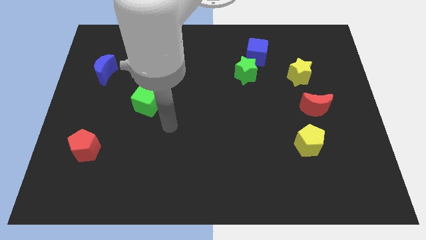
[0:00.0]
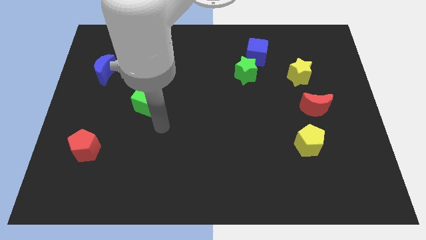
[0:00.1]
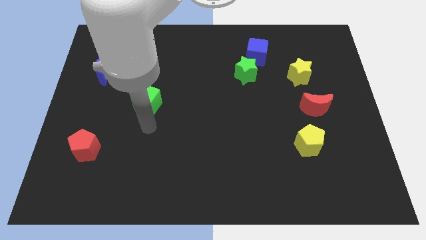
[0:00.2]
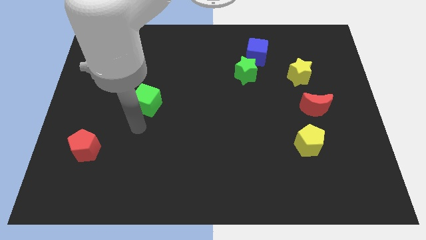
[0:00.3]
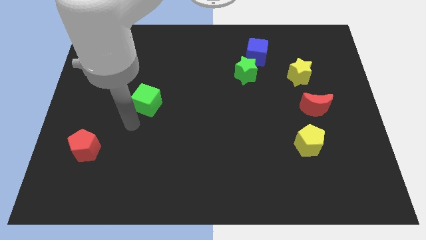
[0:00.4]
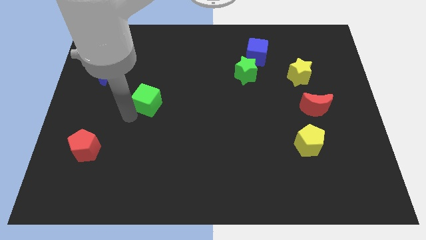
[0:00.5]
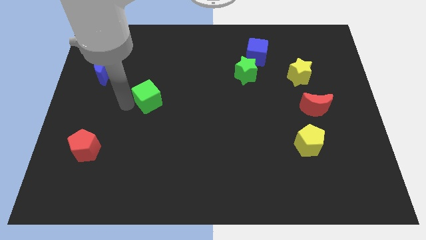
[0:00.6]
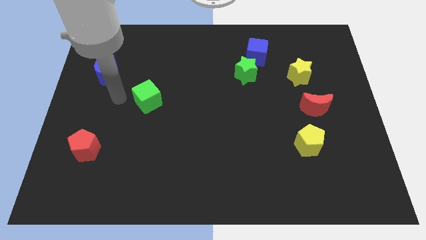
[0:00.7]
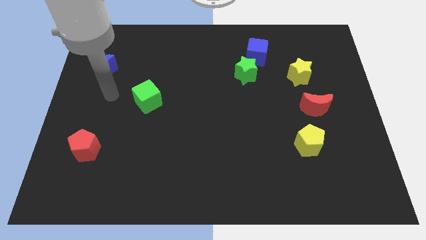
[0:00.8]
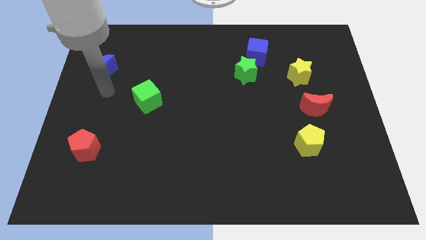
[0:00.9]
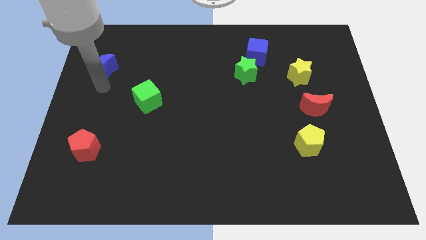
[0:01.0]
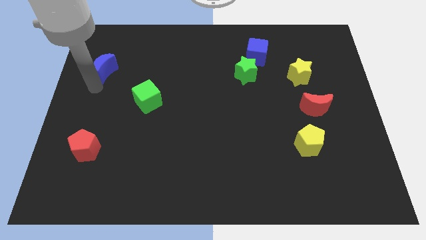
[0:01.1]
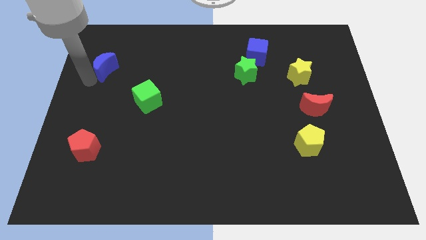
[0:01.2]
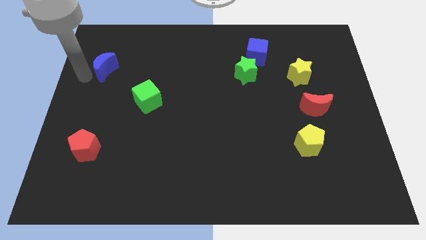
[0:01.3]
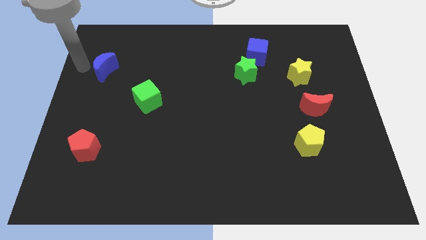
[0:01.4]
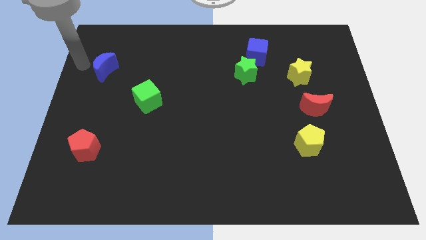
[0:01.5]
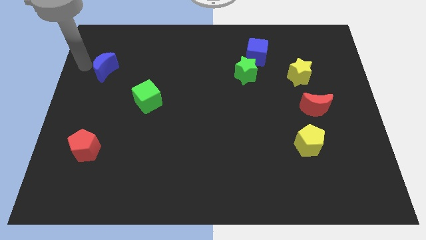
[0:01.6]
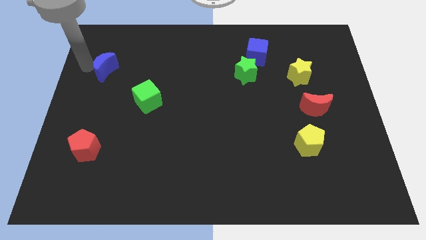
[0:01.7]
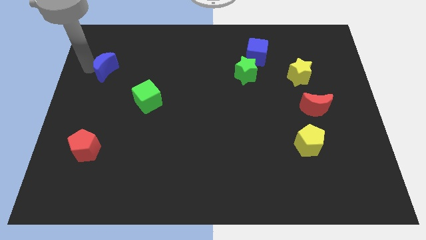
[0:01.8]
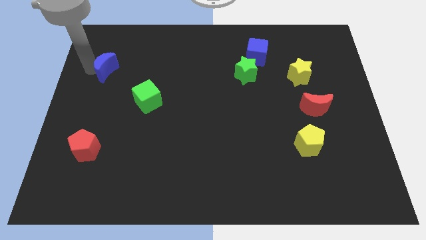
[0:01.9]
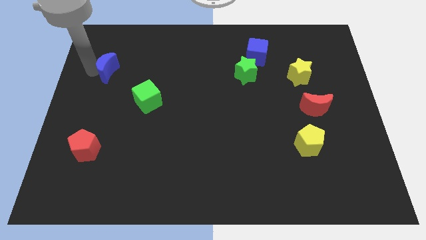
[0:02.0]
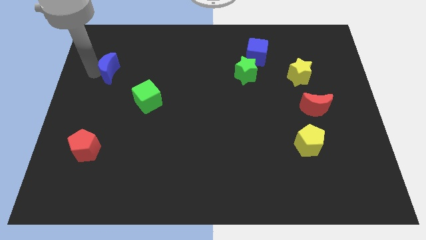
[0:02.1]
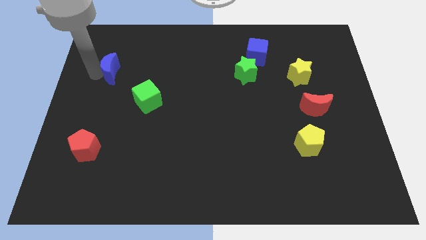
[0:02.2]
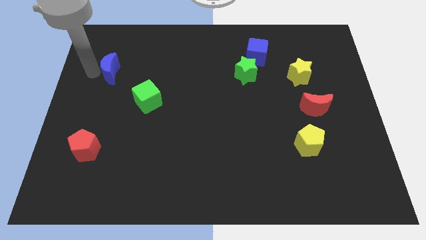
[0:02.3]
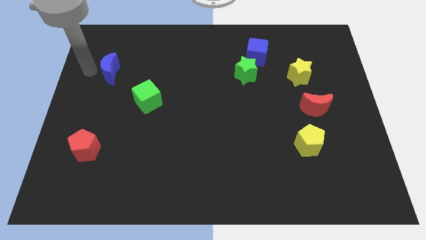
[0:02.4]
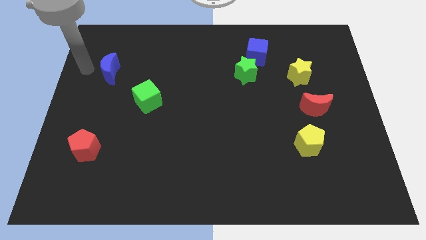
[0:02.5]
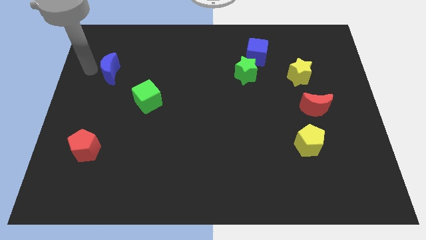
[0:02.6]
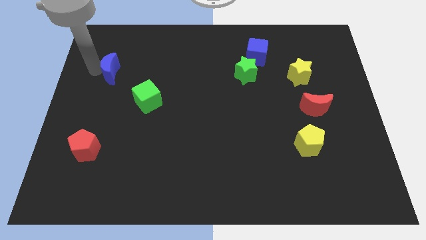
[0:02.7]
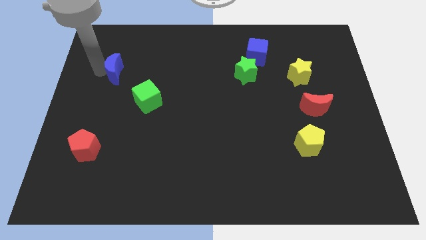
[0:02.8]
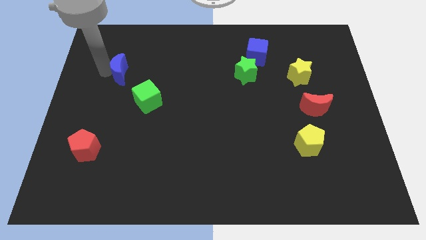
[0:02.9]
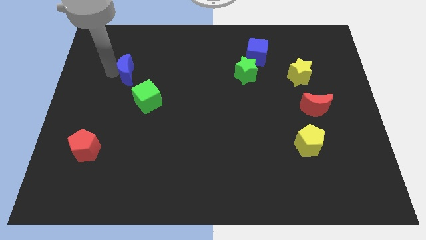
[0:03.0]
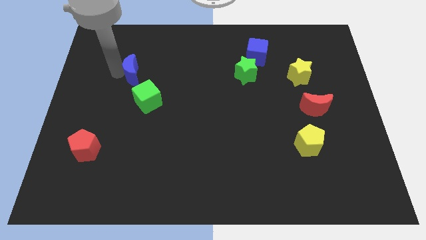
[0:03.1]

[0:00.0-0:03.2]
push the blue moon right a little

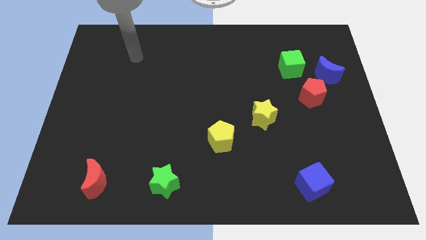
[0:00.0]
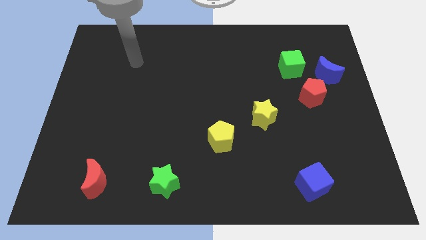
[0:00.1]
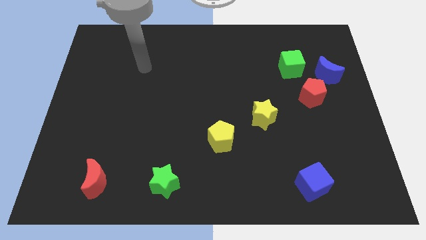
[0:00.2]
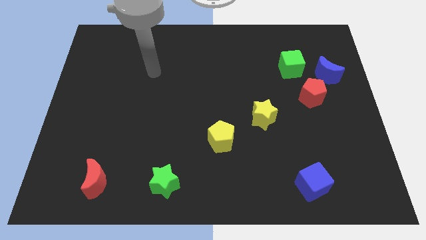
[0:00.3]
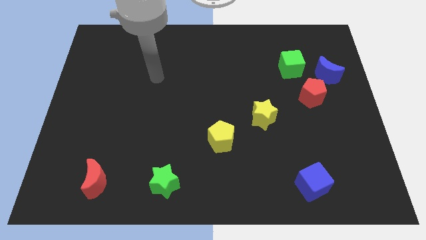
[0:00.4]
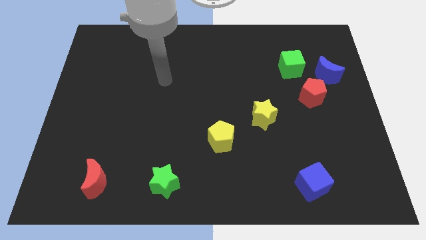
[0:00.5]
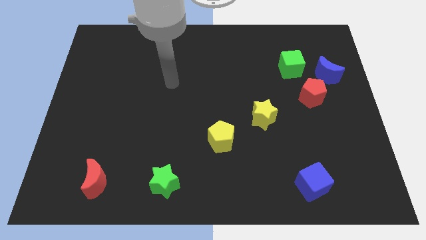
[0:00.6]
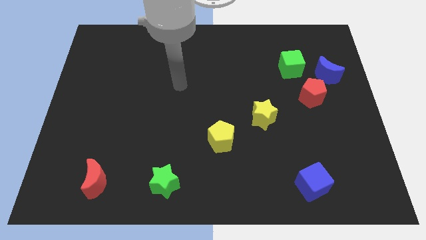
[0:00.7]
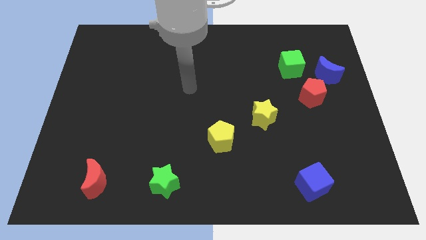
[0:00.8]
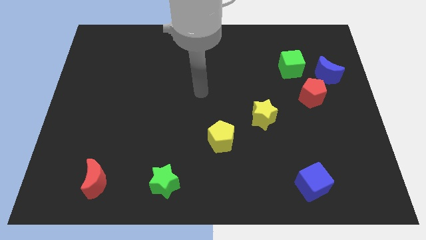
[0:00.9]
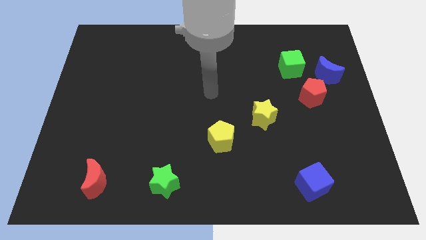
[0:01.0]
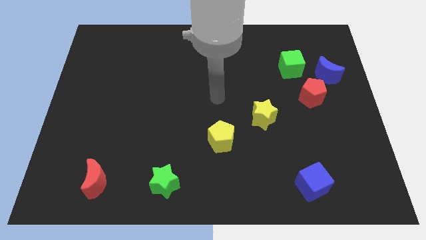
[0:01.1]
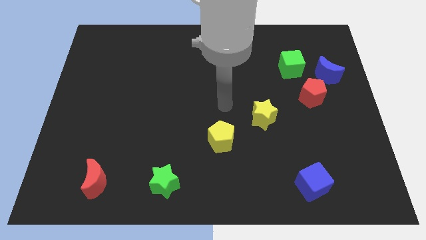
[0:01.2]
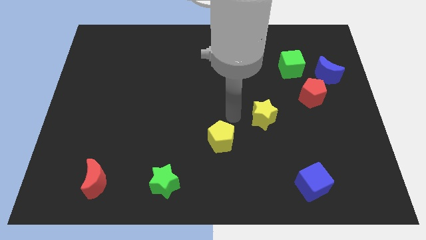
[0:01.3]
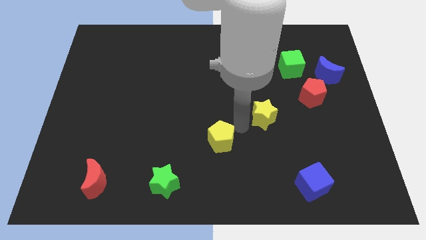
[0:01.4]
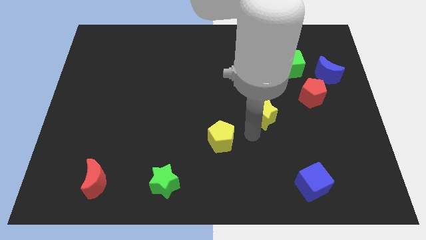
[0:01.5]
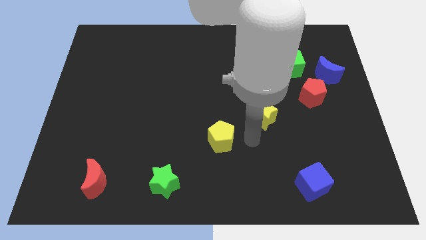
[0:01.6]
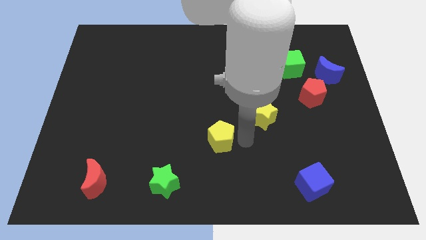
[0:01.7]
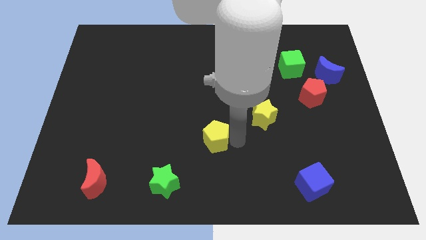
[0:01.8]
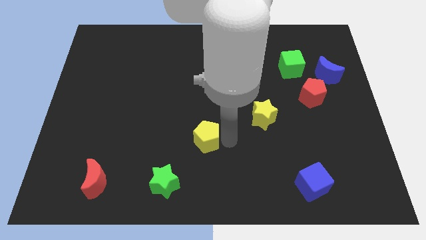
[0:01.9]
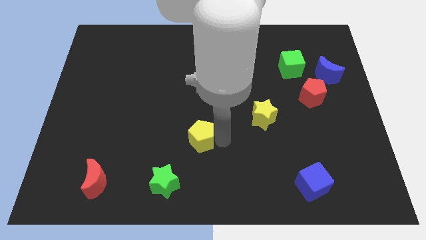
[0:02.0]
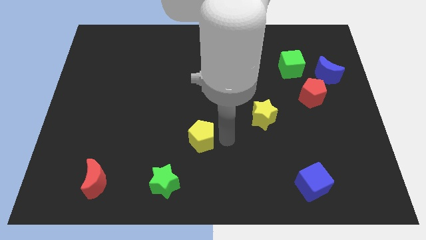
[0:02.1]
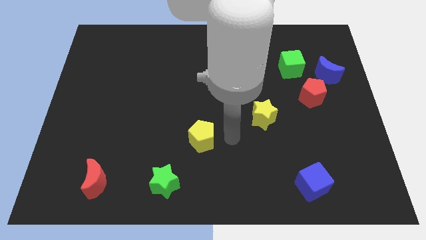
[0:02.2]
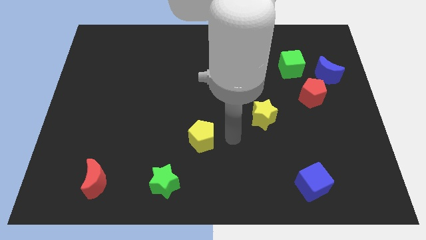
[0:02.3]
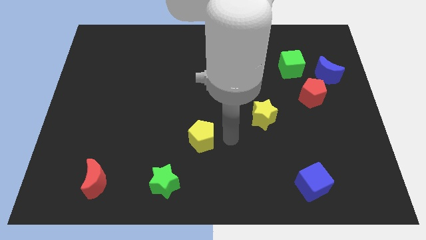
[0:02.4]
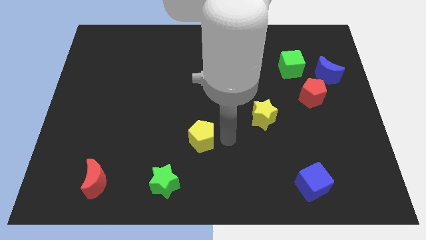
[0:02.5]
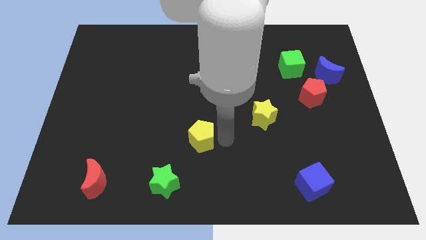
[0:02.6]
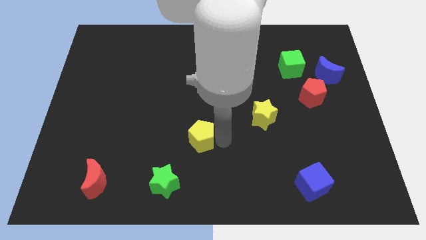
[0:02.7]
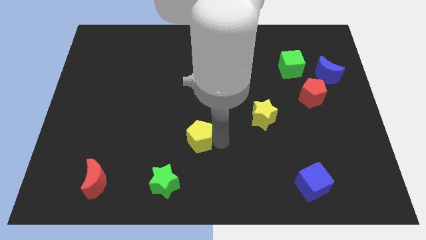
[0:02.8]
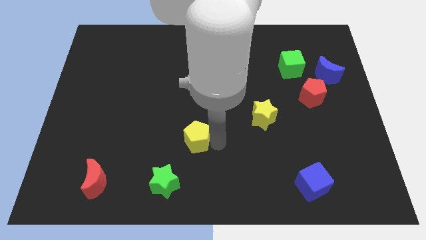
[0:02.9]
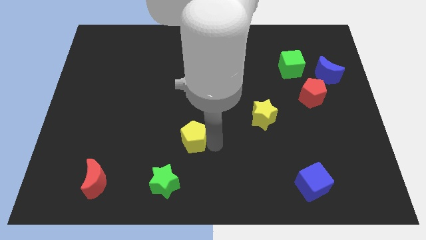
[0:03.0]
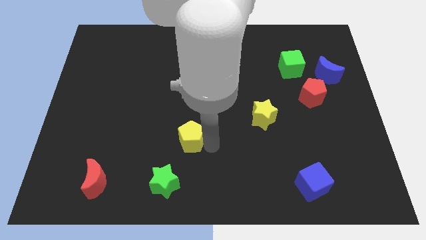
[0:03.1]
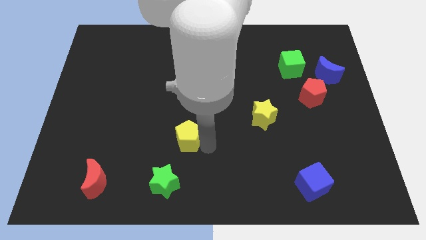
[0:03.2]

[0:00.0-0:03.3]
slide the yellow pentagon somewhat left

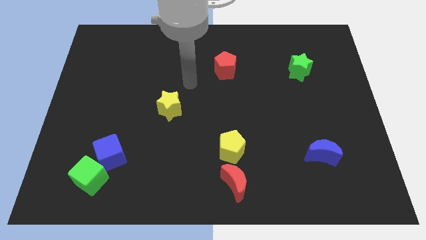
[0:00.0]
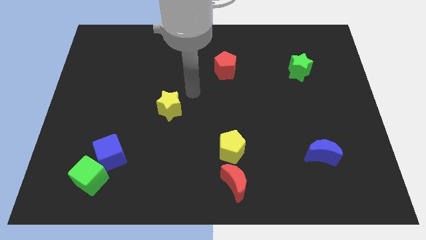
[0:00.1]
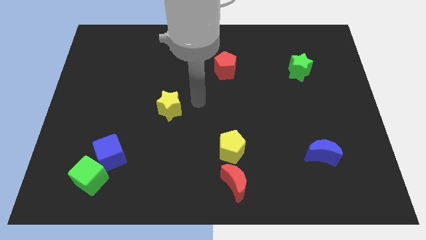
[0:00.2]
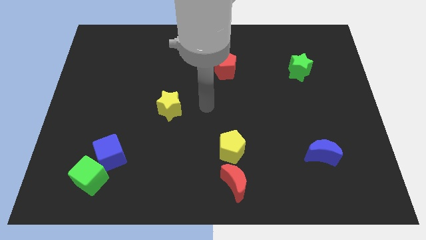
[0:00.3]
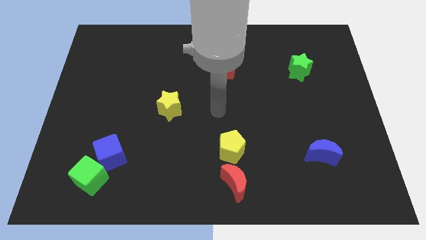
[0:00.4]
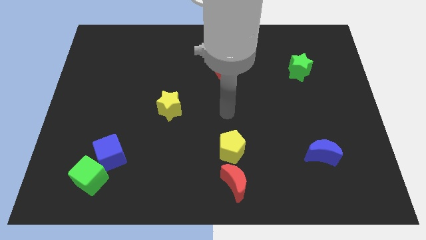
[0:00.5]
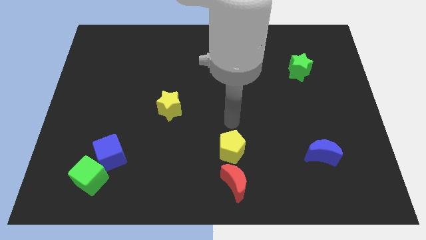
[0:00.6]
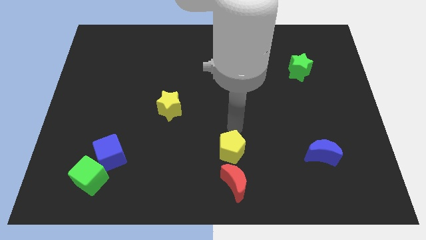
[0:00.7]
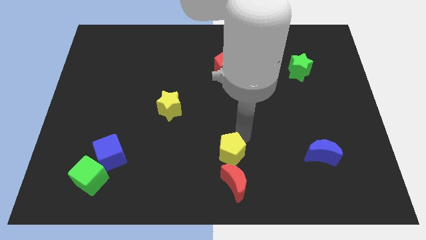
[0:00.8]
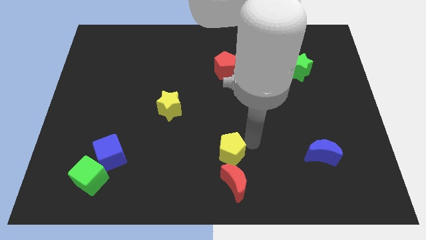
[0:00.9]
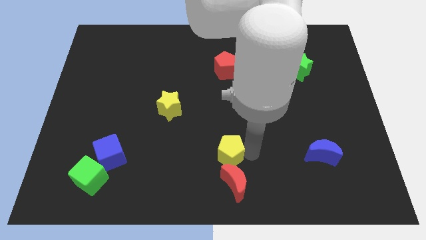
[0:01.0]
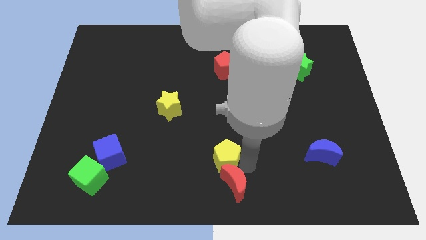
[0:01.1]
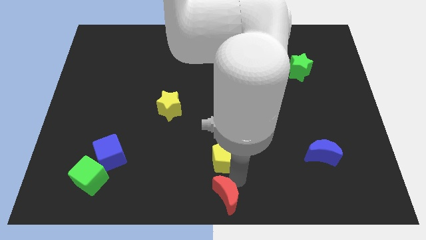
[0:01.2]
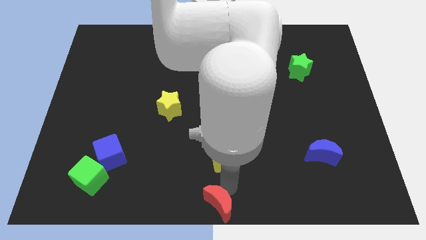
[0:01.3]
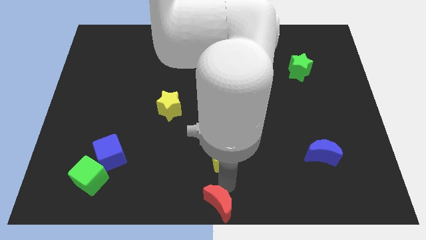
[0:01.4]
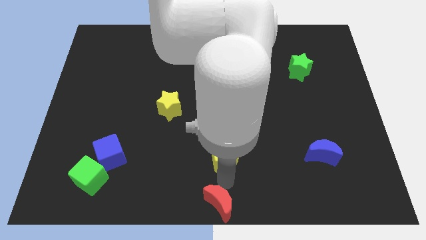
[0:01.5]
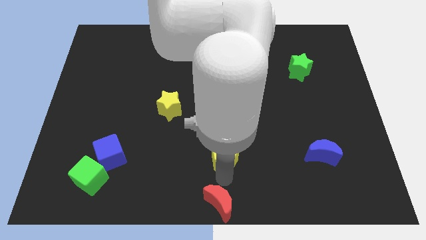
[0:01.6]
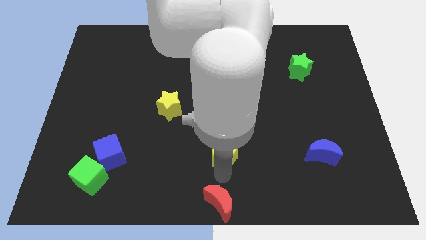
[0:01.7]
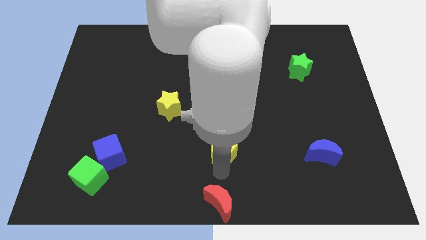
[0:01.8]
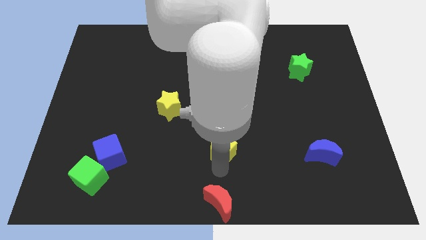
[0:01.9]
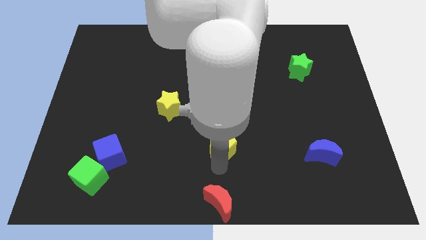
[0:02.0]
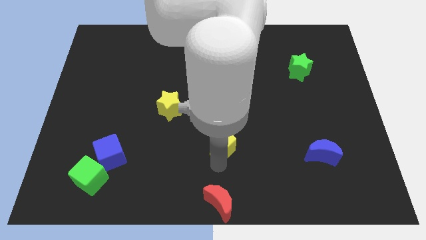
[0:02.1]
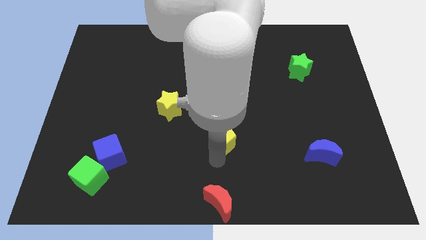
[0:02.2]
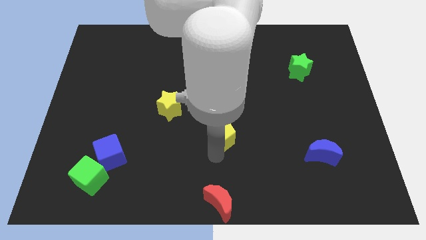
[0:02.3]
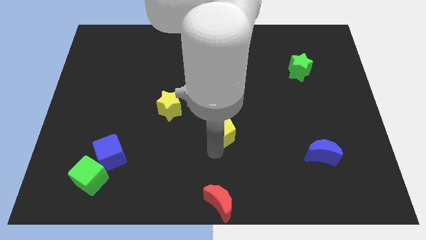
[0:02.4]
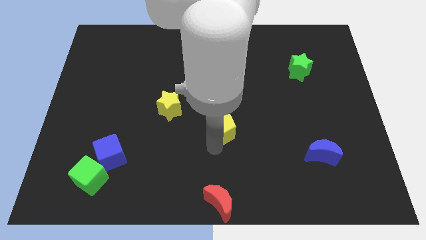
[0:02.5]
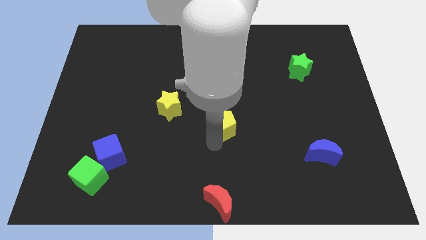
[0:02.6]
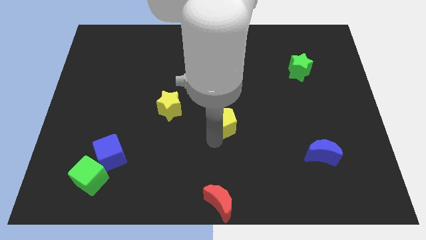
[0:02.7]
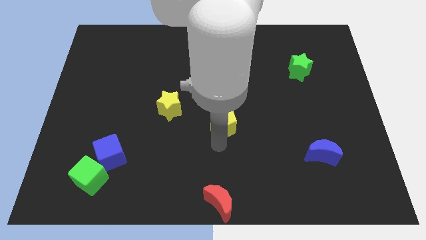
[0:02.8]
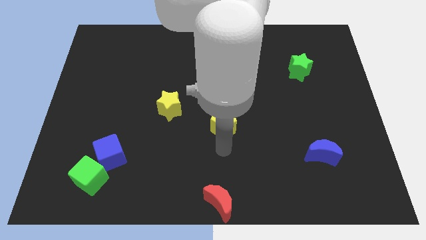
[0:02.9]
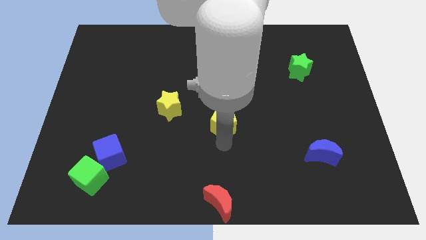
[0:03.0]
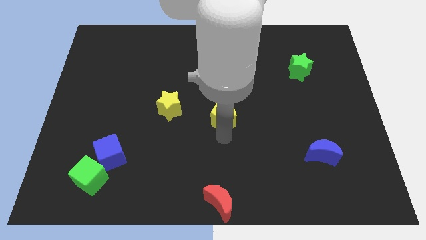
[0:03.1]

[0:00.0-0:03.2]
slide the yellow pentagon somewhat up
